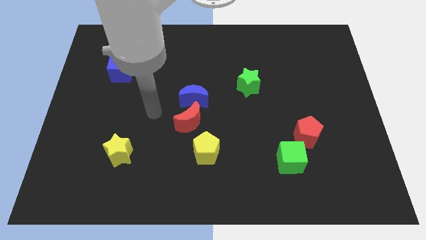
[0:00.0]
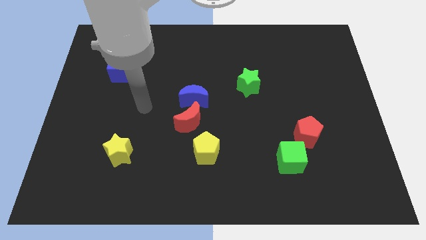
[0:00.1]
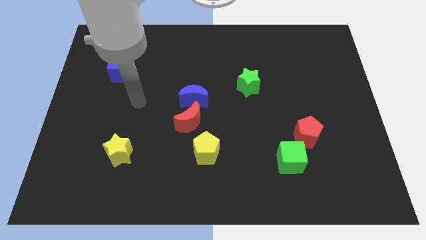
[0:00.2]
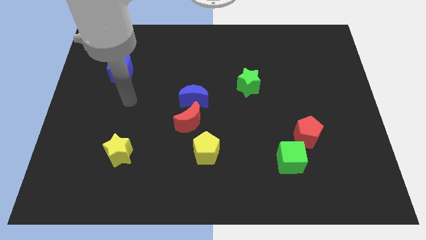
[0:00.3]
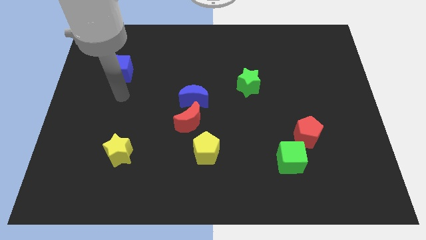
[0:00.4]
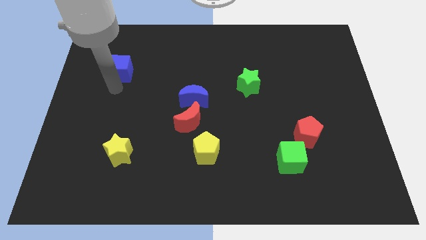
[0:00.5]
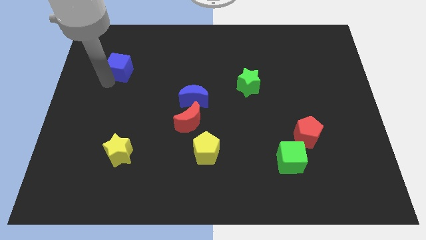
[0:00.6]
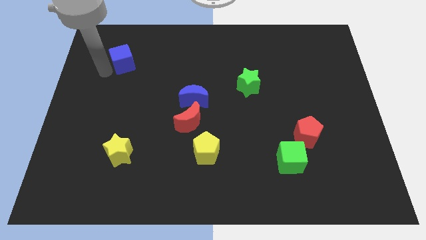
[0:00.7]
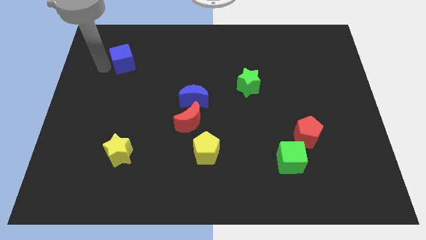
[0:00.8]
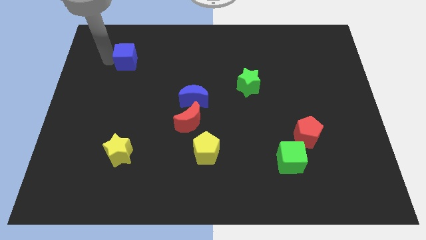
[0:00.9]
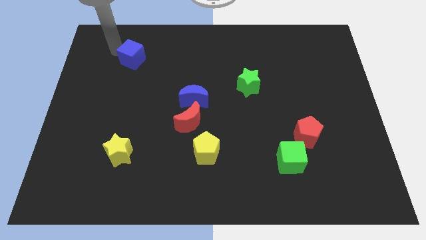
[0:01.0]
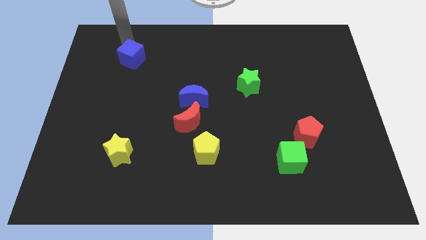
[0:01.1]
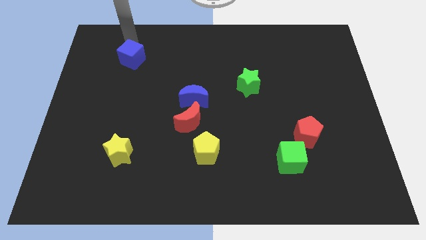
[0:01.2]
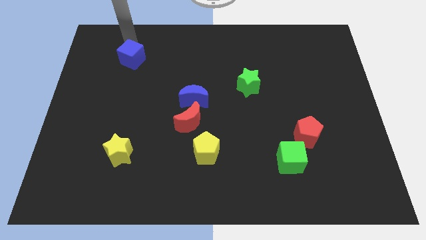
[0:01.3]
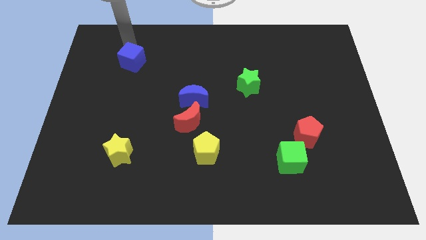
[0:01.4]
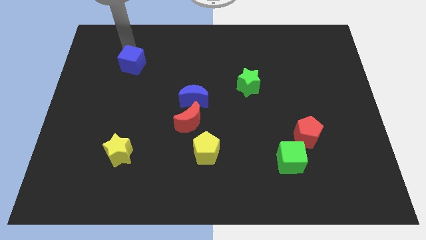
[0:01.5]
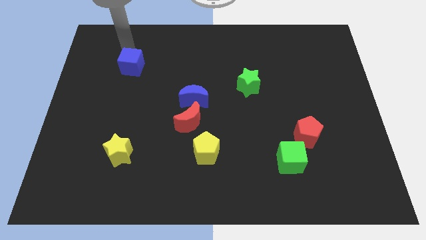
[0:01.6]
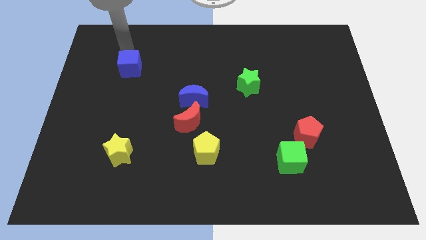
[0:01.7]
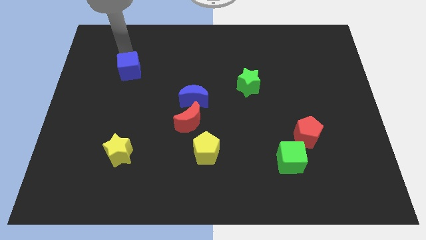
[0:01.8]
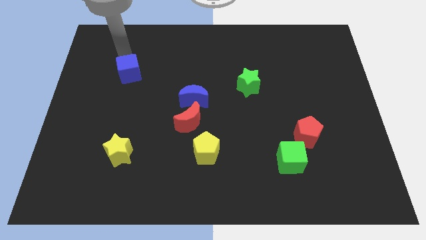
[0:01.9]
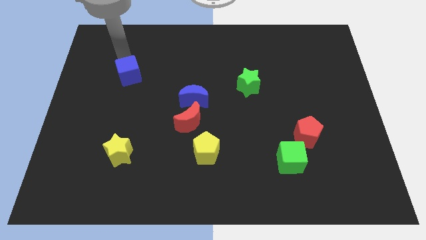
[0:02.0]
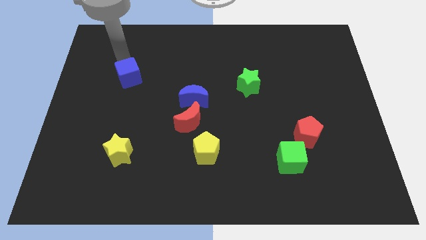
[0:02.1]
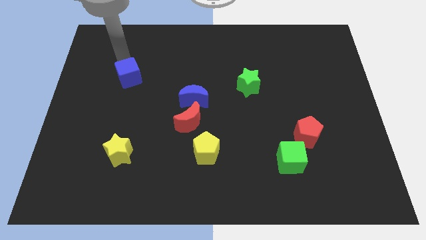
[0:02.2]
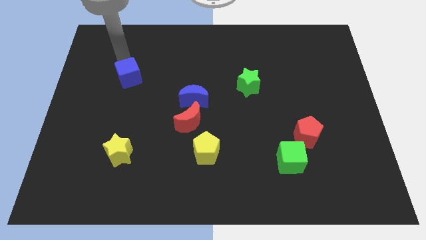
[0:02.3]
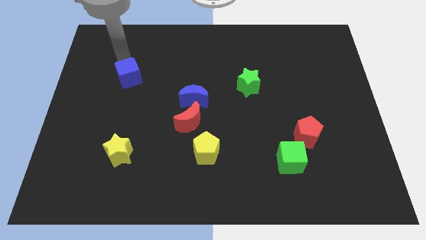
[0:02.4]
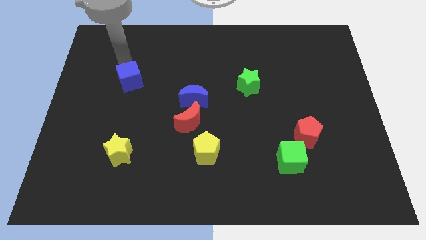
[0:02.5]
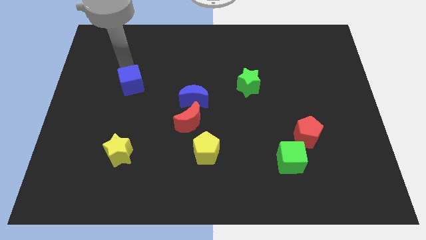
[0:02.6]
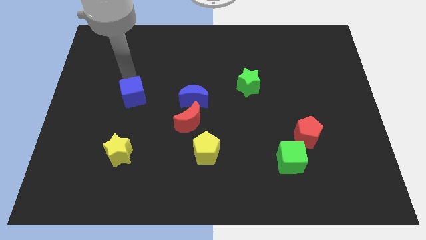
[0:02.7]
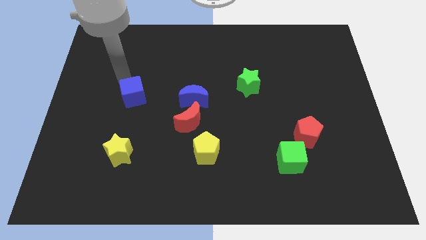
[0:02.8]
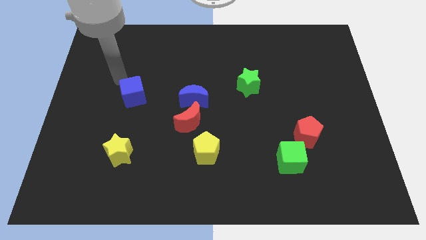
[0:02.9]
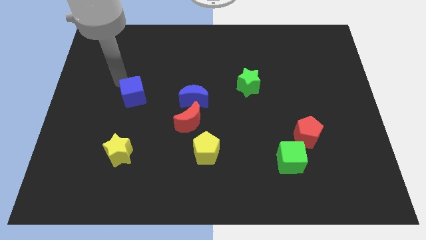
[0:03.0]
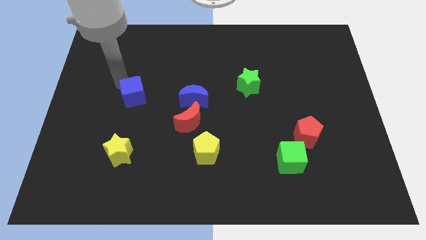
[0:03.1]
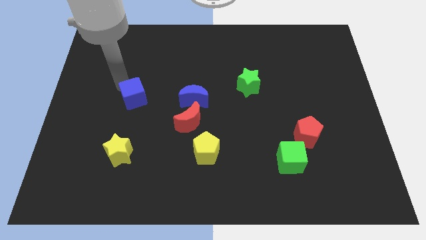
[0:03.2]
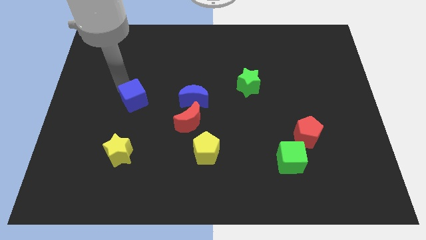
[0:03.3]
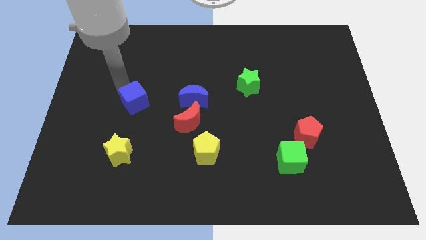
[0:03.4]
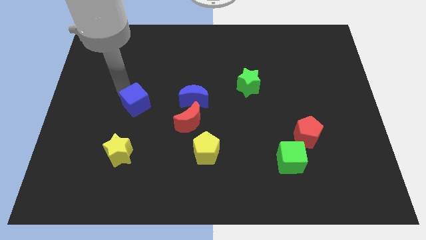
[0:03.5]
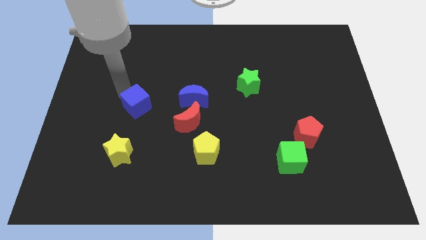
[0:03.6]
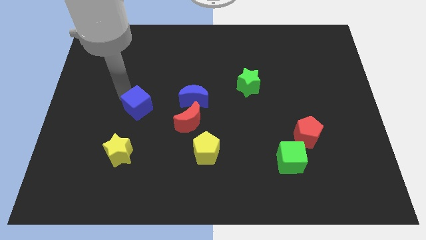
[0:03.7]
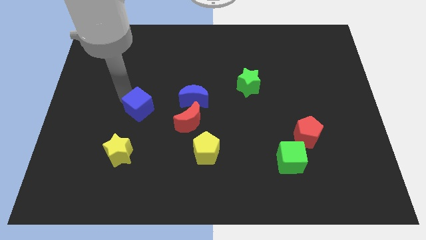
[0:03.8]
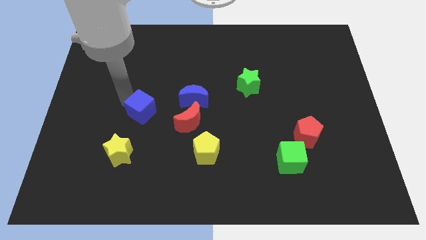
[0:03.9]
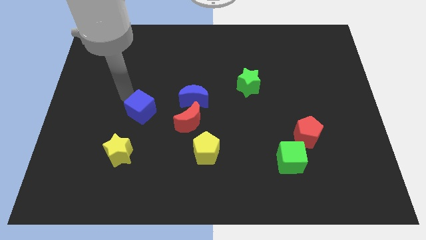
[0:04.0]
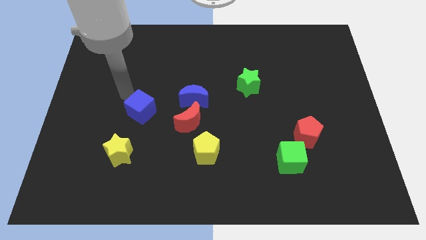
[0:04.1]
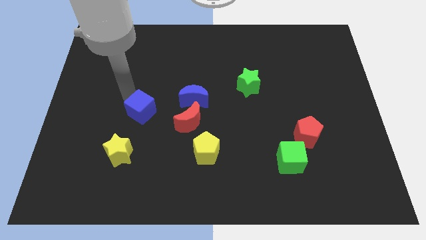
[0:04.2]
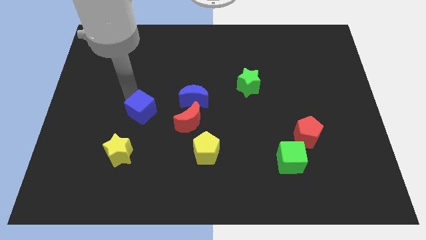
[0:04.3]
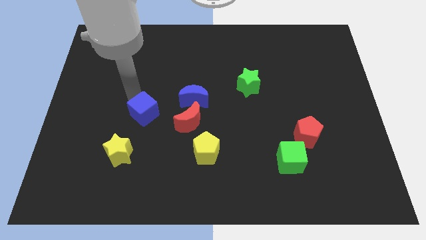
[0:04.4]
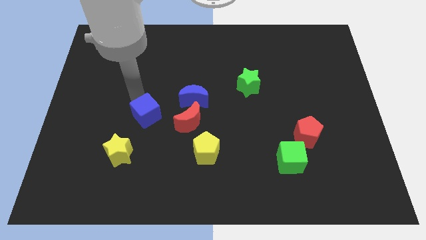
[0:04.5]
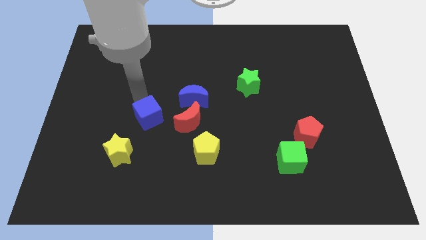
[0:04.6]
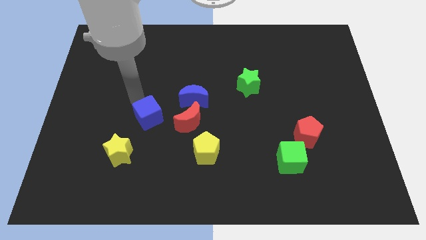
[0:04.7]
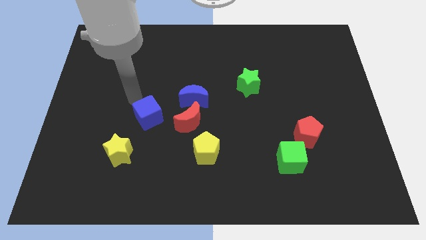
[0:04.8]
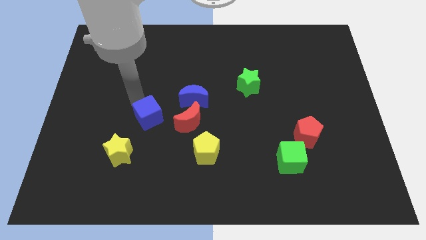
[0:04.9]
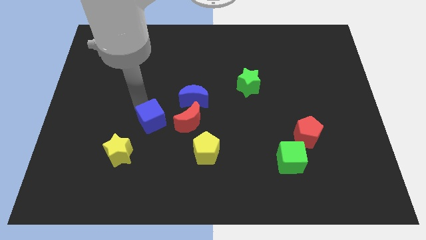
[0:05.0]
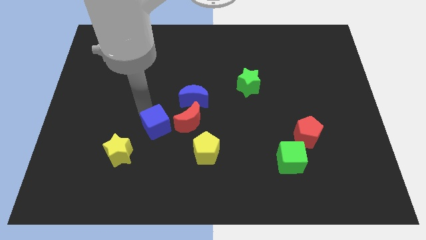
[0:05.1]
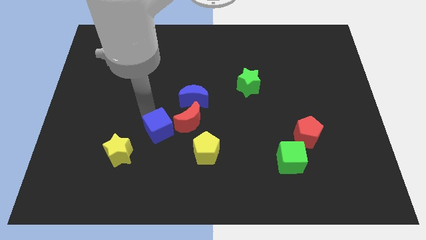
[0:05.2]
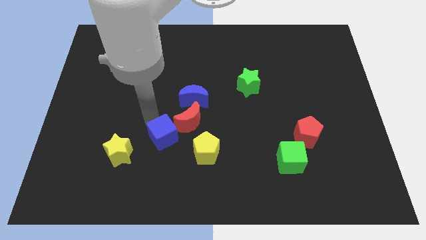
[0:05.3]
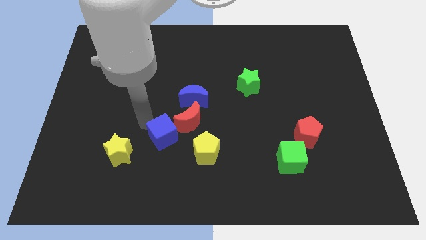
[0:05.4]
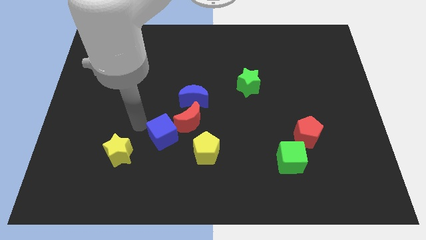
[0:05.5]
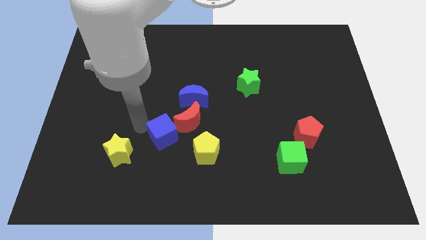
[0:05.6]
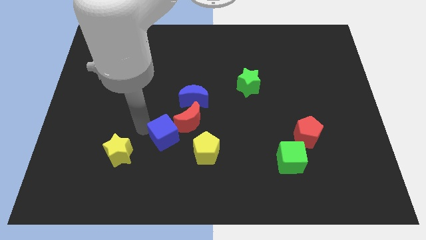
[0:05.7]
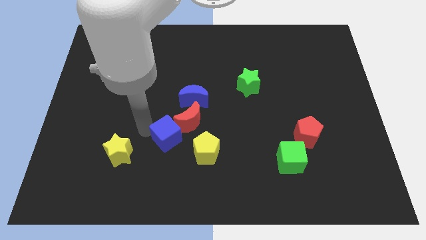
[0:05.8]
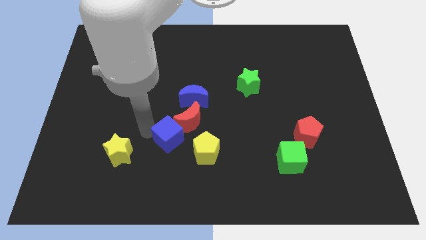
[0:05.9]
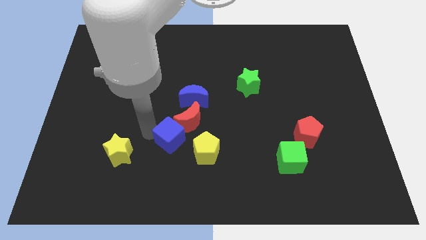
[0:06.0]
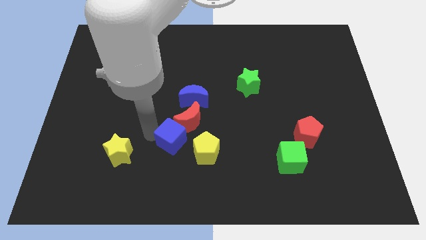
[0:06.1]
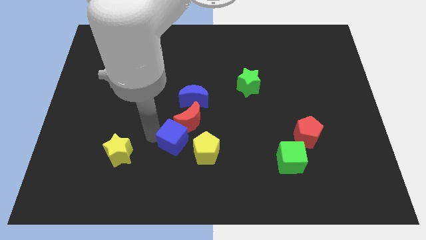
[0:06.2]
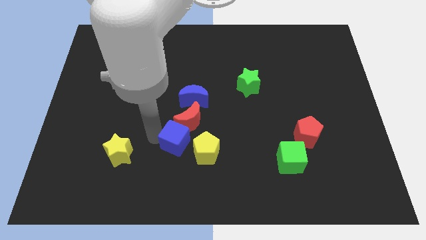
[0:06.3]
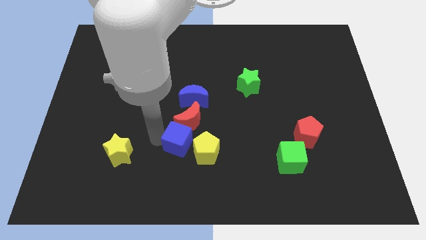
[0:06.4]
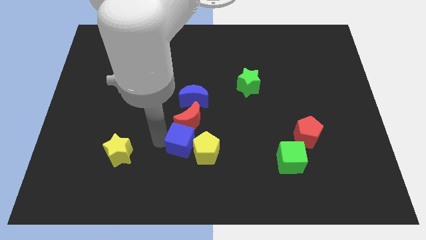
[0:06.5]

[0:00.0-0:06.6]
slide the blue cube next to the yellow pentagon

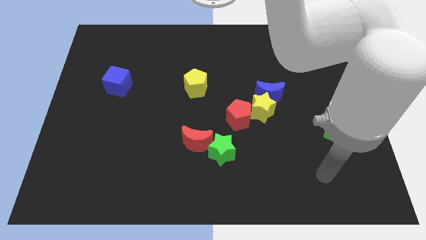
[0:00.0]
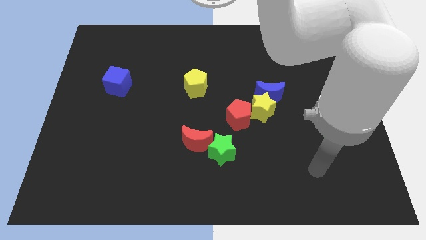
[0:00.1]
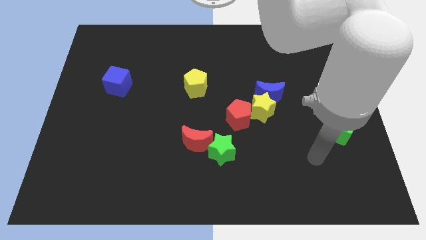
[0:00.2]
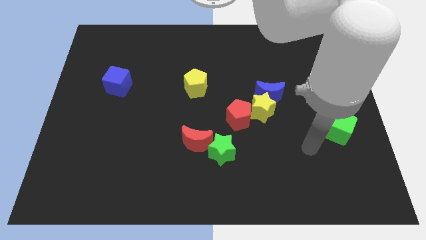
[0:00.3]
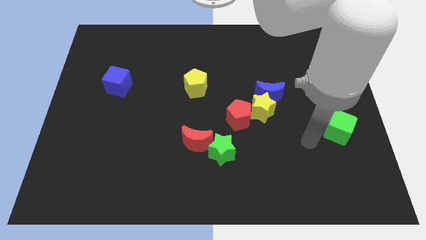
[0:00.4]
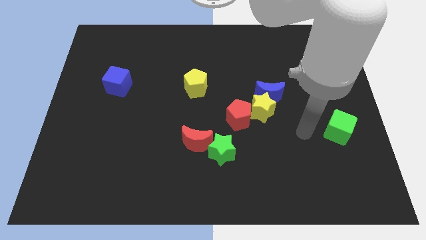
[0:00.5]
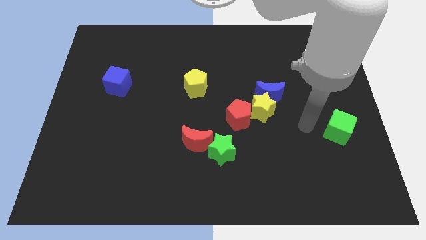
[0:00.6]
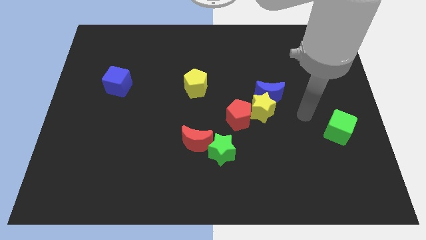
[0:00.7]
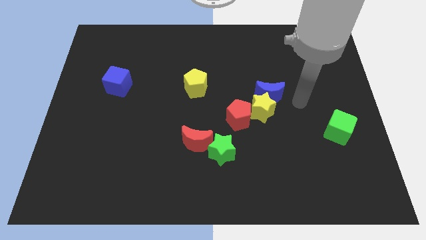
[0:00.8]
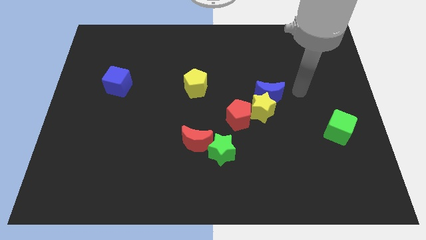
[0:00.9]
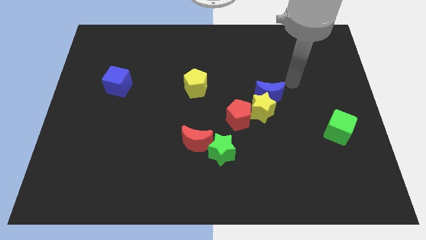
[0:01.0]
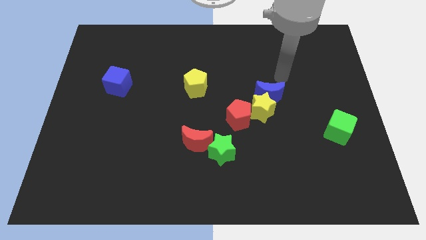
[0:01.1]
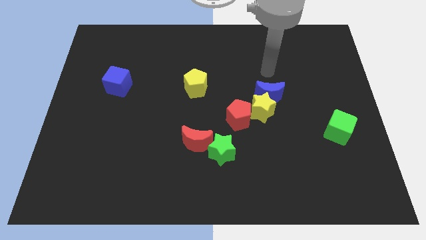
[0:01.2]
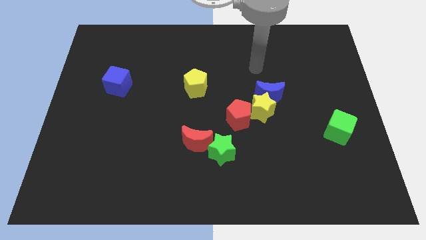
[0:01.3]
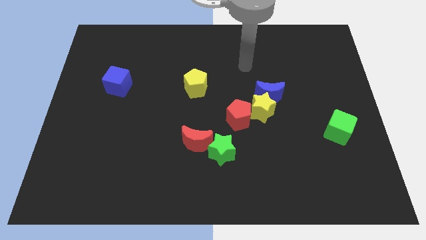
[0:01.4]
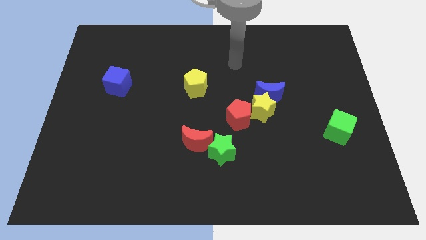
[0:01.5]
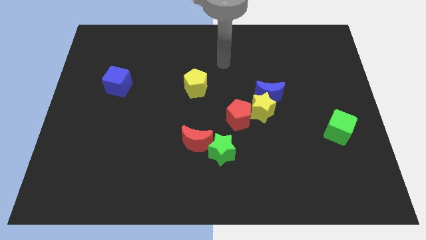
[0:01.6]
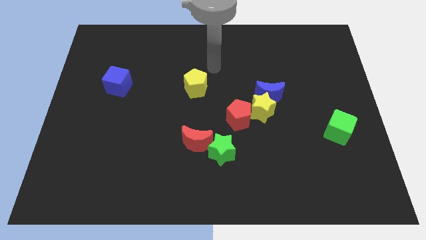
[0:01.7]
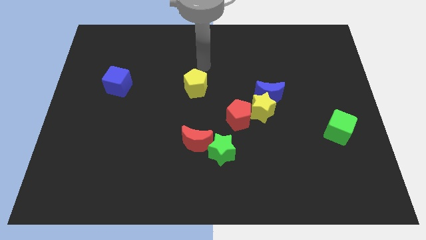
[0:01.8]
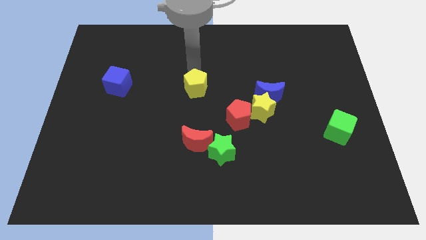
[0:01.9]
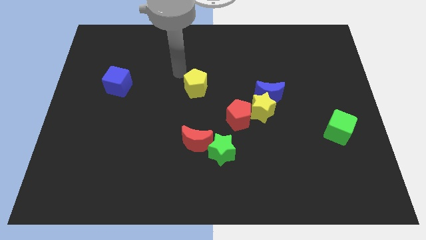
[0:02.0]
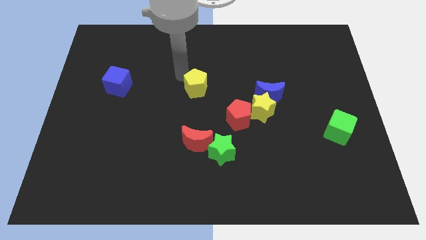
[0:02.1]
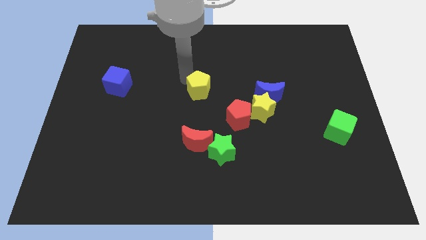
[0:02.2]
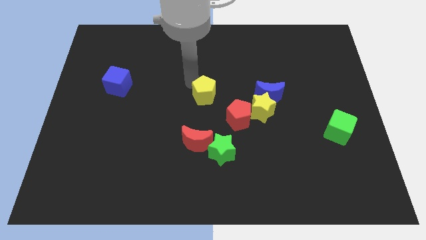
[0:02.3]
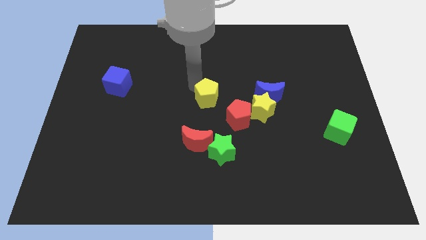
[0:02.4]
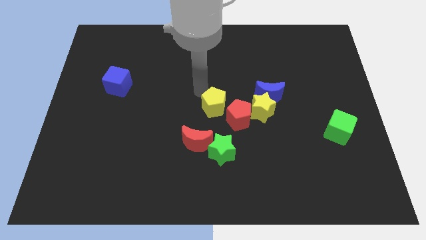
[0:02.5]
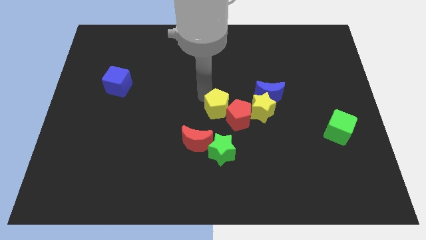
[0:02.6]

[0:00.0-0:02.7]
move the yellow pentagon next to the red pentagon
